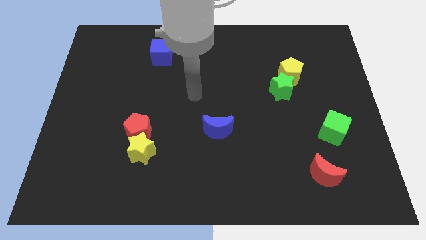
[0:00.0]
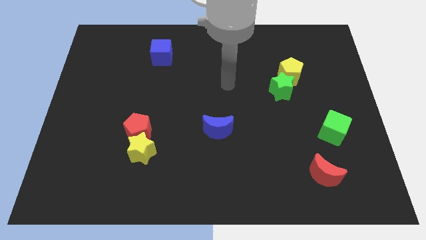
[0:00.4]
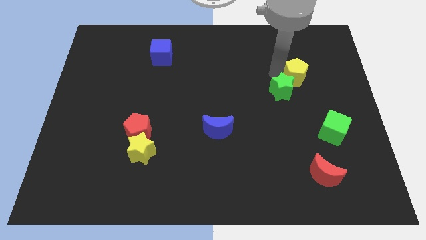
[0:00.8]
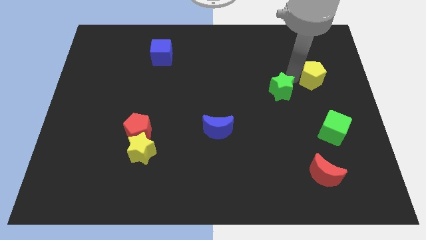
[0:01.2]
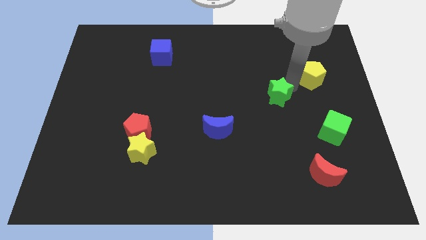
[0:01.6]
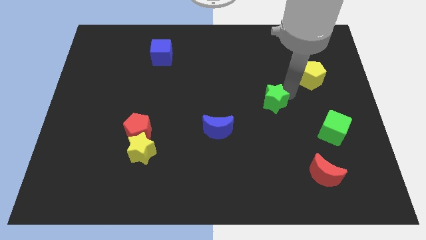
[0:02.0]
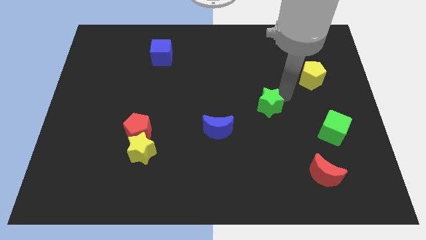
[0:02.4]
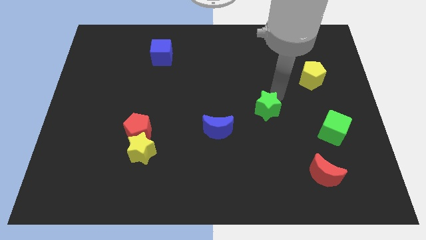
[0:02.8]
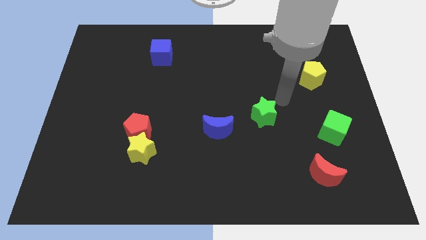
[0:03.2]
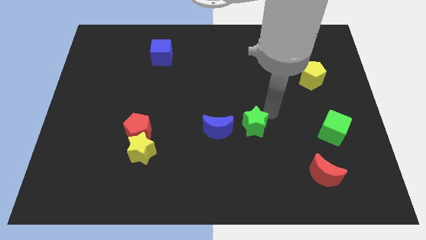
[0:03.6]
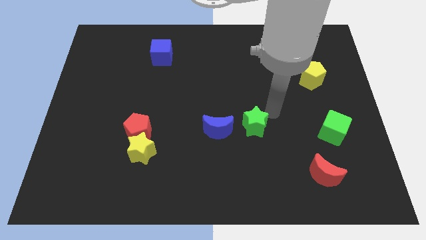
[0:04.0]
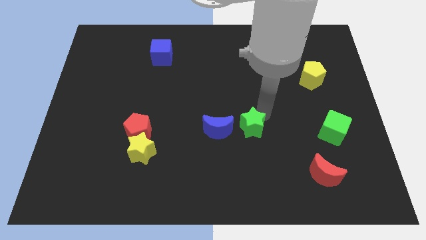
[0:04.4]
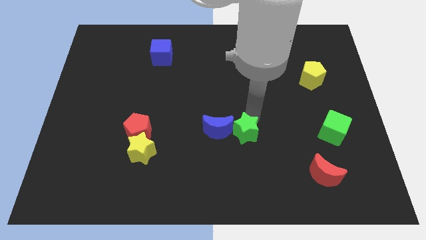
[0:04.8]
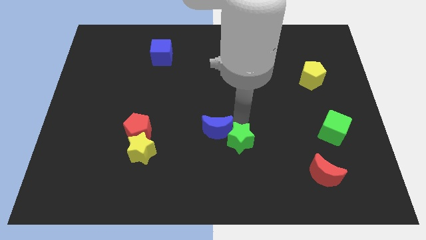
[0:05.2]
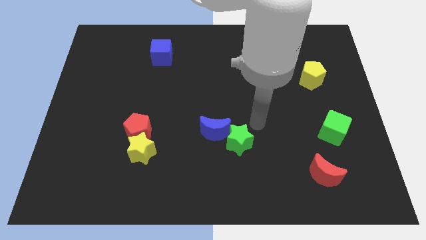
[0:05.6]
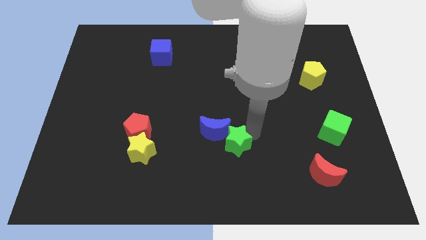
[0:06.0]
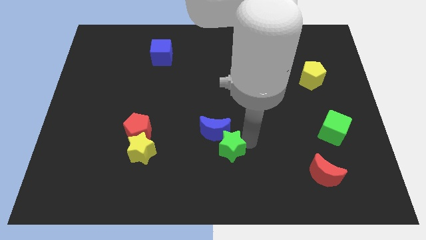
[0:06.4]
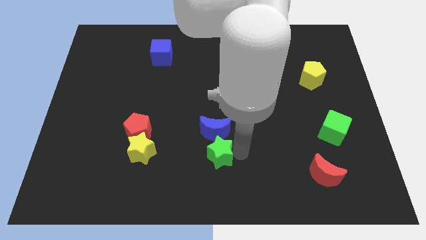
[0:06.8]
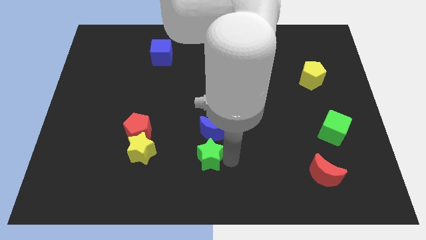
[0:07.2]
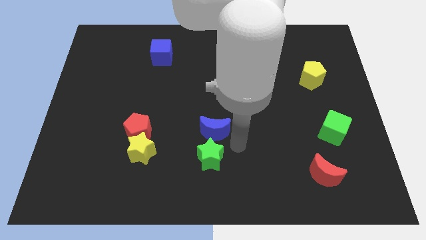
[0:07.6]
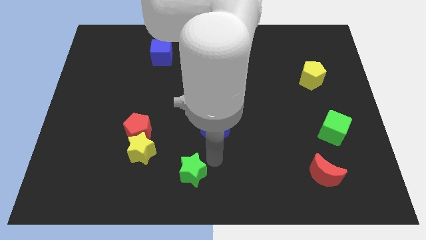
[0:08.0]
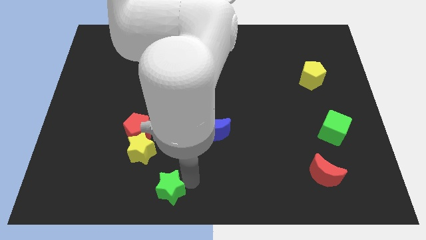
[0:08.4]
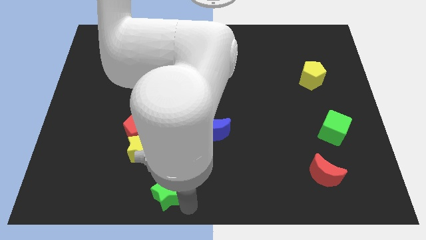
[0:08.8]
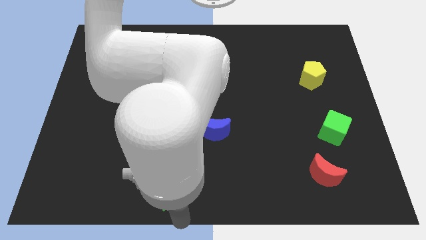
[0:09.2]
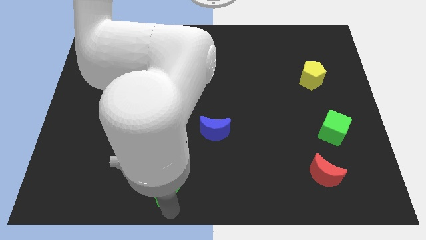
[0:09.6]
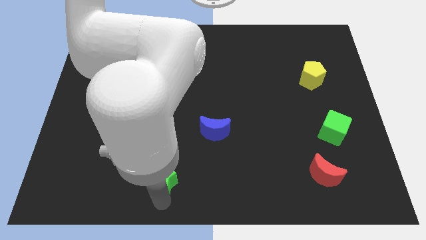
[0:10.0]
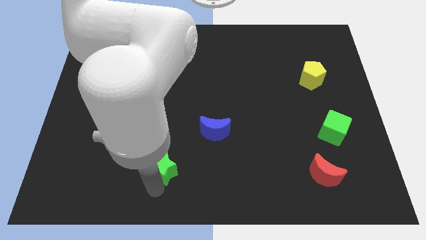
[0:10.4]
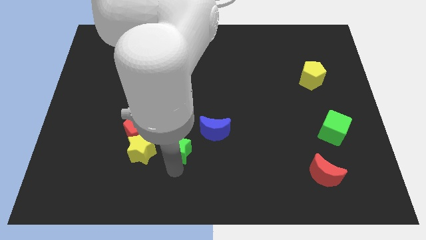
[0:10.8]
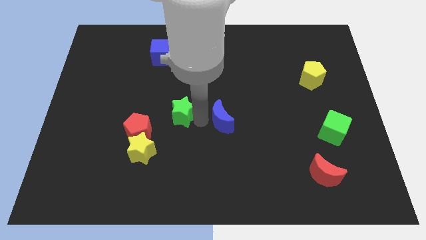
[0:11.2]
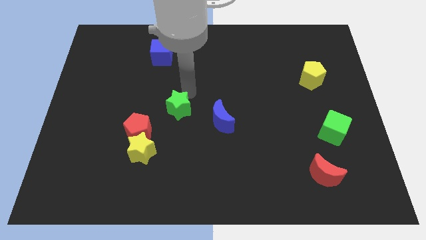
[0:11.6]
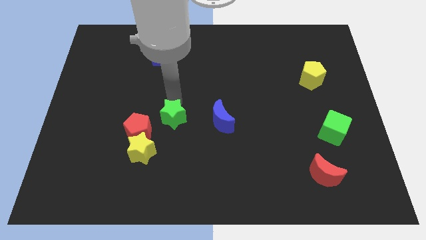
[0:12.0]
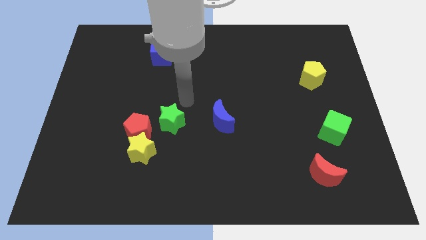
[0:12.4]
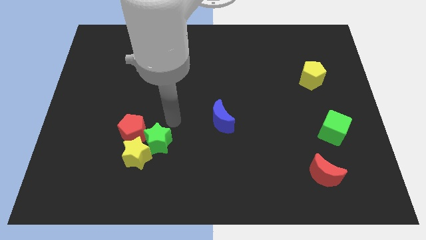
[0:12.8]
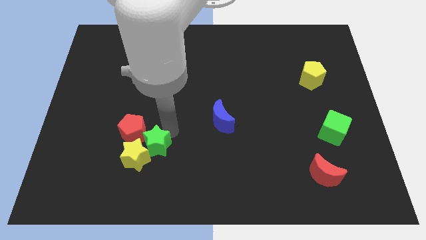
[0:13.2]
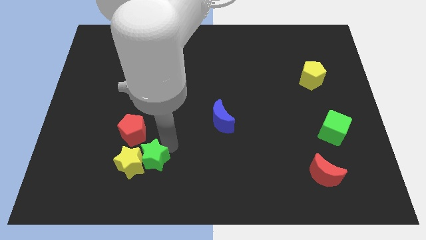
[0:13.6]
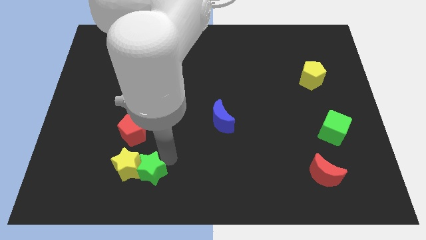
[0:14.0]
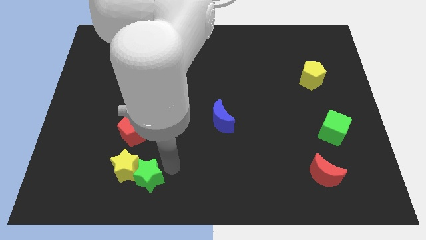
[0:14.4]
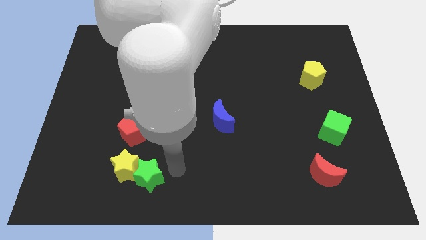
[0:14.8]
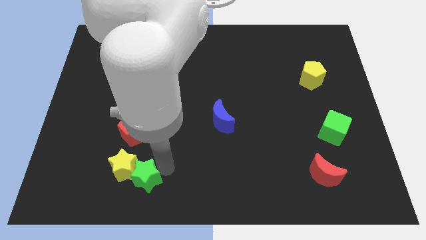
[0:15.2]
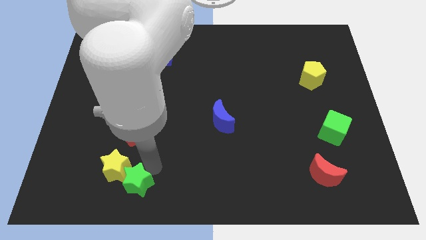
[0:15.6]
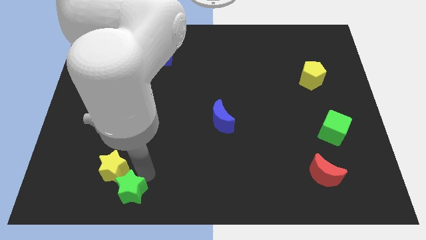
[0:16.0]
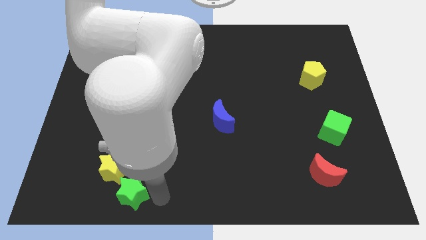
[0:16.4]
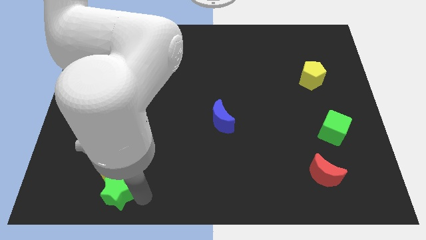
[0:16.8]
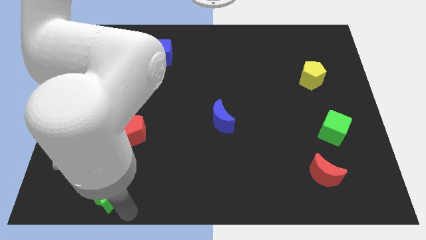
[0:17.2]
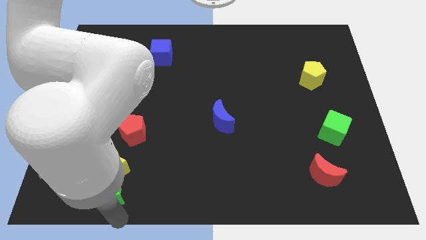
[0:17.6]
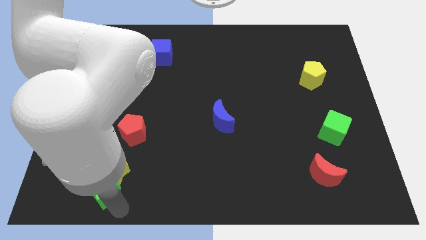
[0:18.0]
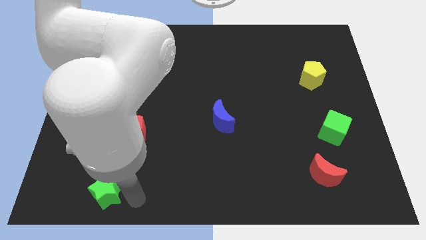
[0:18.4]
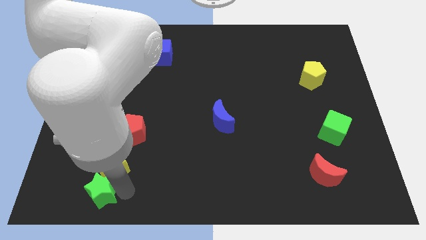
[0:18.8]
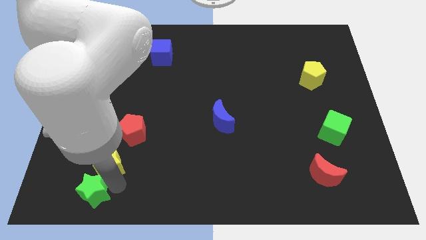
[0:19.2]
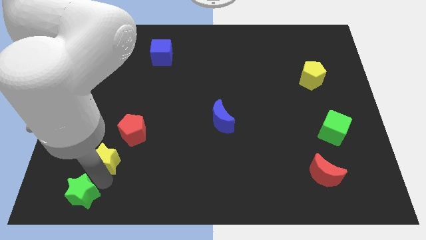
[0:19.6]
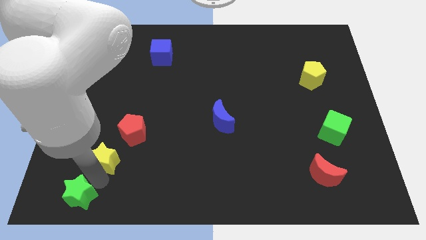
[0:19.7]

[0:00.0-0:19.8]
move the green star to the bottom left corner

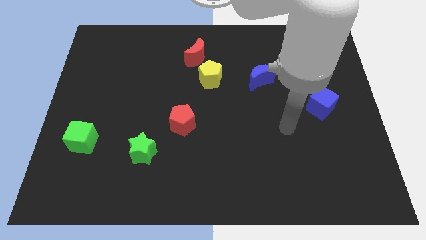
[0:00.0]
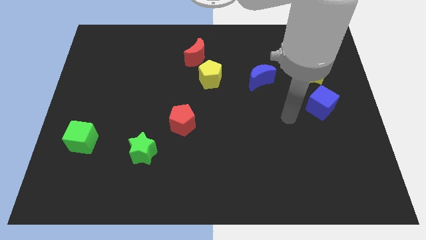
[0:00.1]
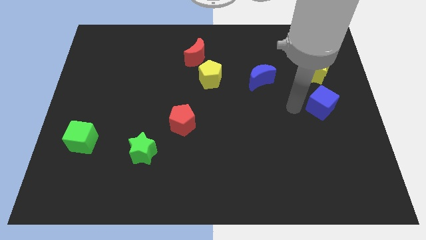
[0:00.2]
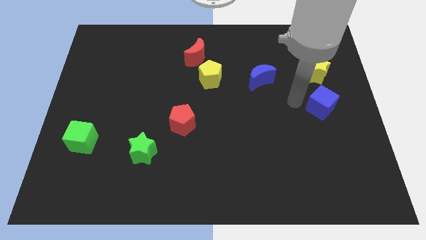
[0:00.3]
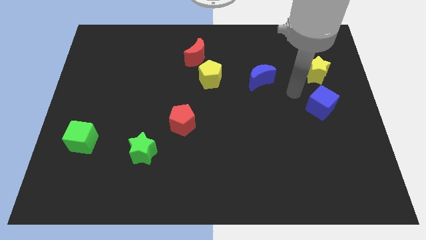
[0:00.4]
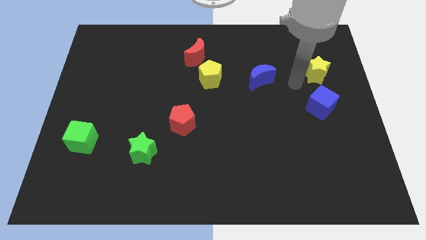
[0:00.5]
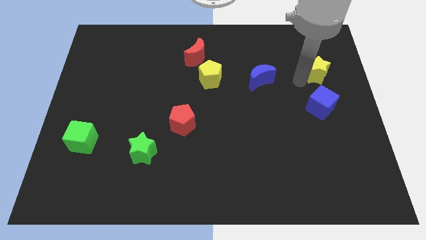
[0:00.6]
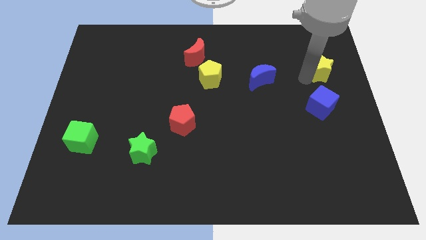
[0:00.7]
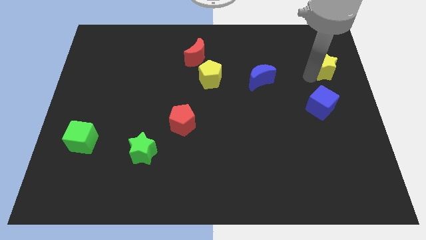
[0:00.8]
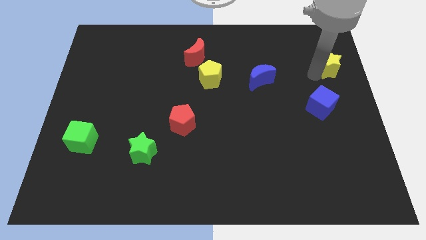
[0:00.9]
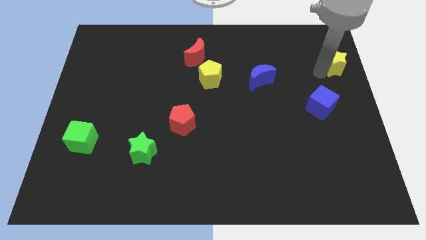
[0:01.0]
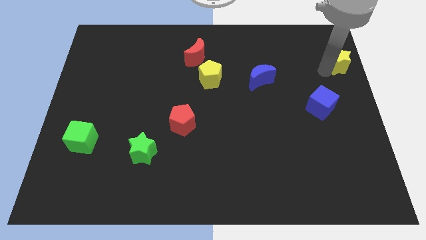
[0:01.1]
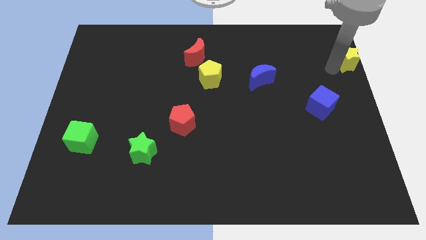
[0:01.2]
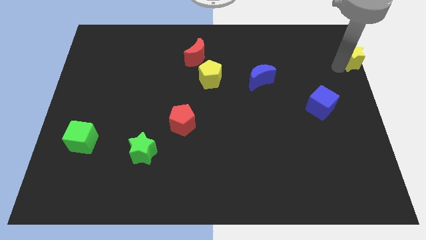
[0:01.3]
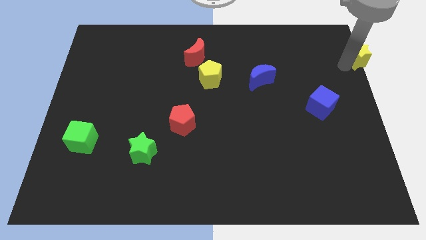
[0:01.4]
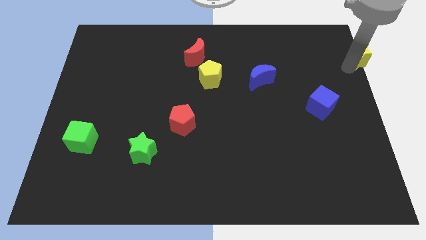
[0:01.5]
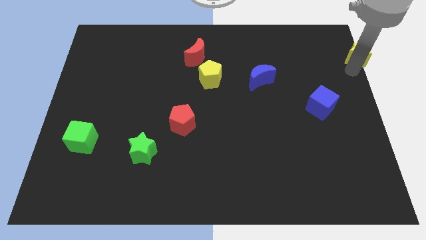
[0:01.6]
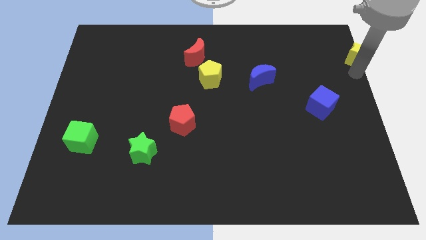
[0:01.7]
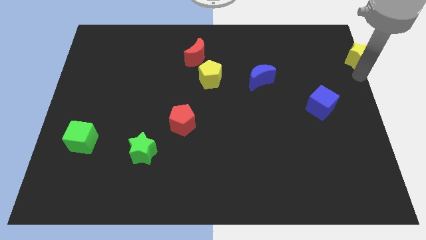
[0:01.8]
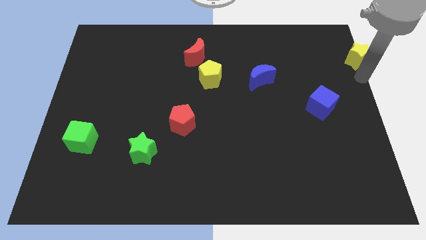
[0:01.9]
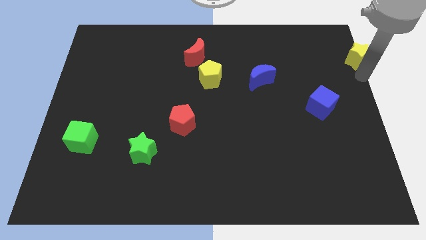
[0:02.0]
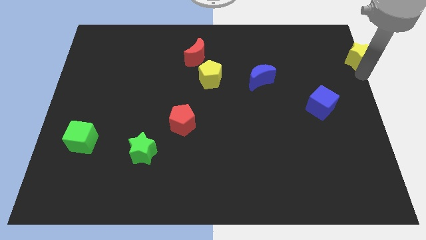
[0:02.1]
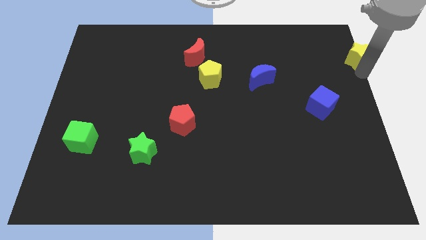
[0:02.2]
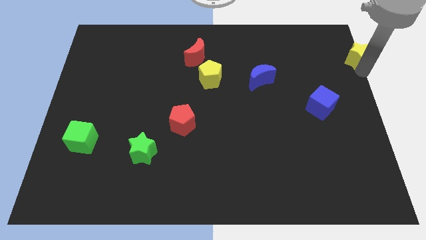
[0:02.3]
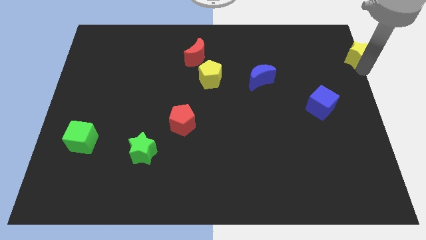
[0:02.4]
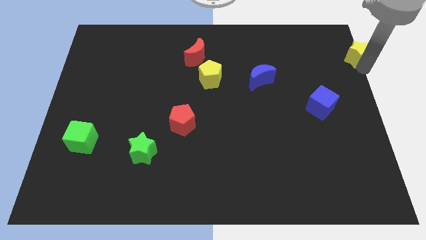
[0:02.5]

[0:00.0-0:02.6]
push the yellow star to the top right corner
